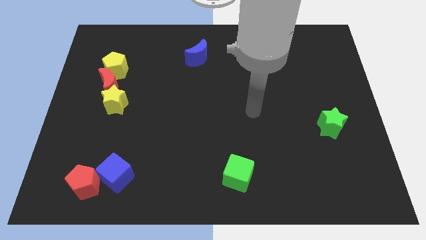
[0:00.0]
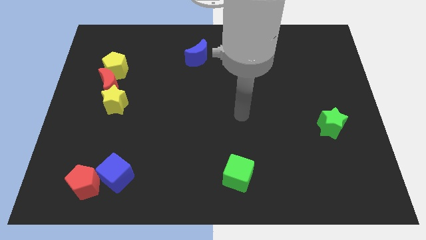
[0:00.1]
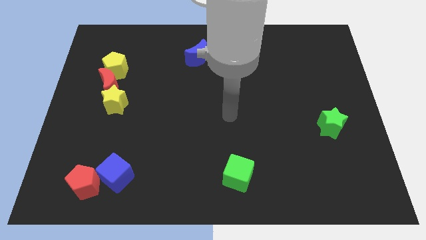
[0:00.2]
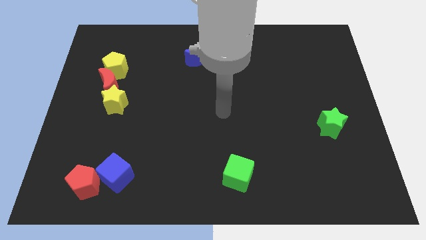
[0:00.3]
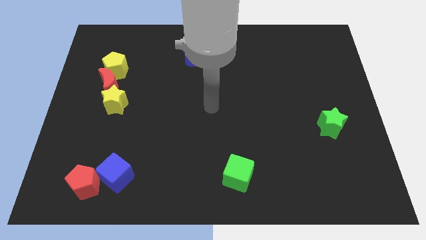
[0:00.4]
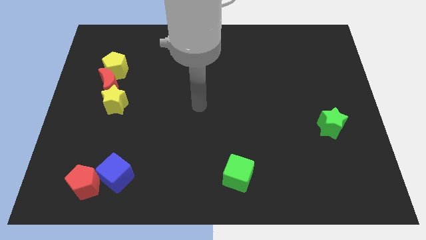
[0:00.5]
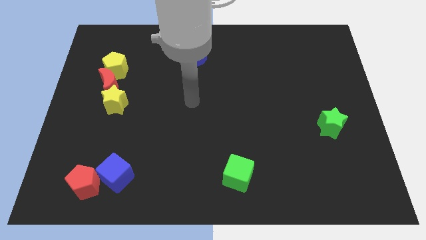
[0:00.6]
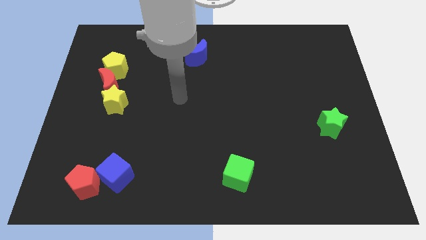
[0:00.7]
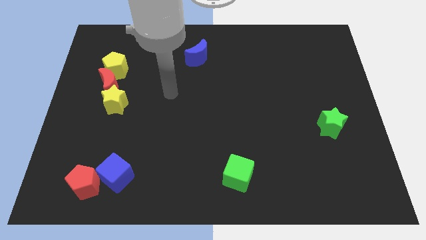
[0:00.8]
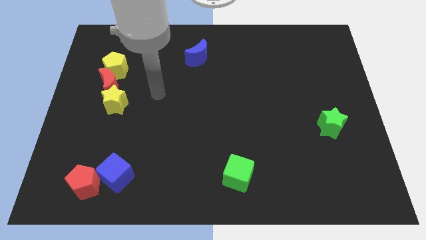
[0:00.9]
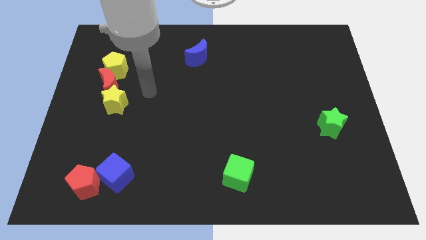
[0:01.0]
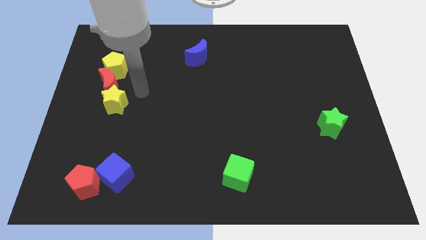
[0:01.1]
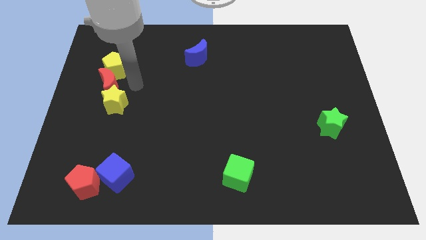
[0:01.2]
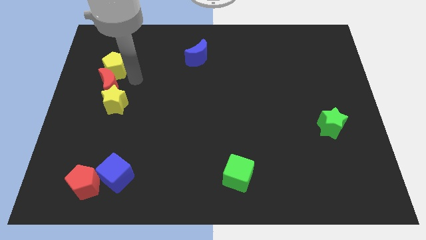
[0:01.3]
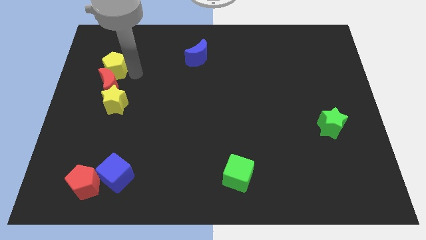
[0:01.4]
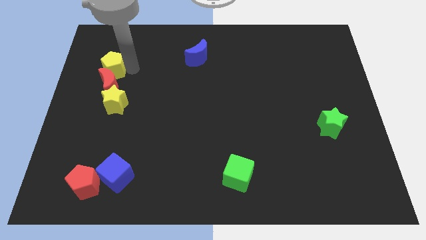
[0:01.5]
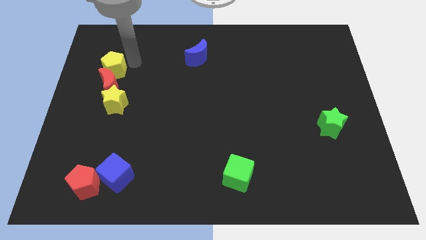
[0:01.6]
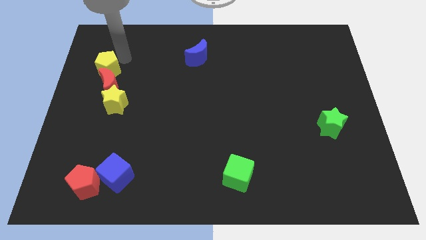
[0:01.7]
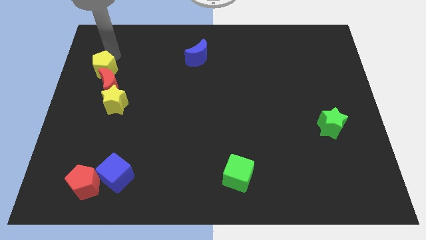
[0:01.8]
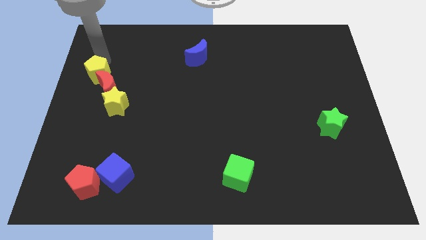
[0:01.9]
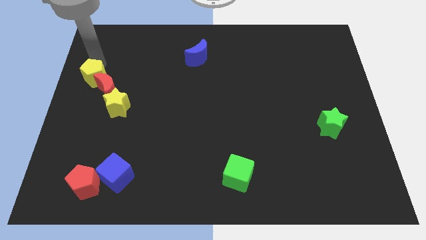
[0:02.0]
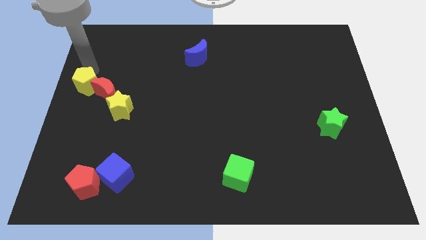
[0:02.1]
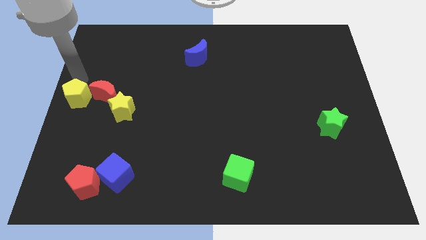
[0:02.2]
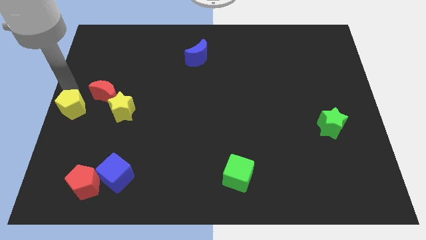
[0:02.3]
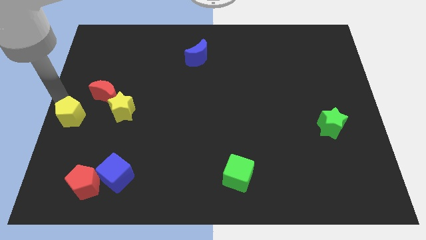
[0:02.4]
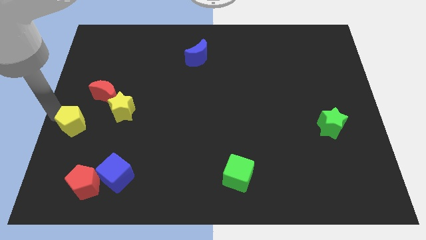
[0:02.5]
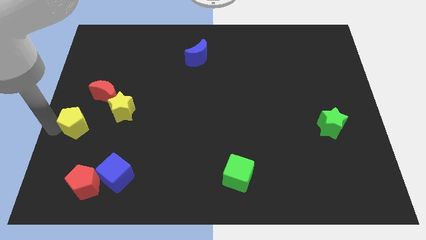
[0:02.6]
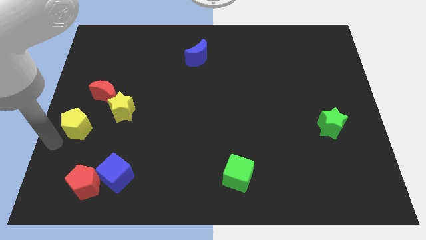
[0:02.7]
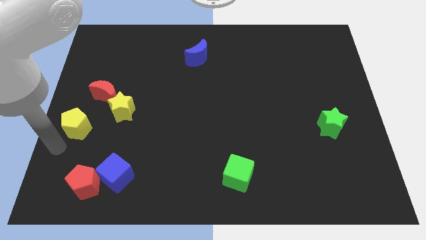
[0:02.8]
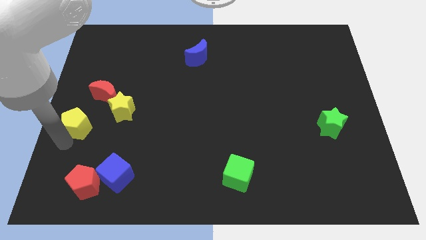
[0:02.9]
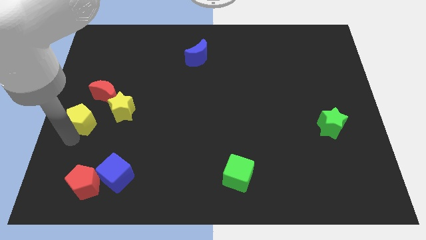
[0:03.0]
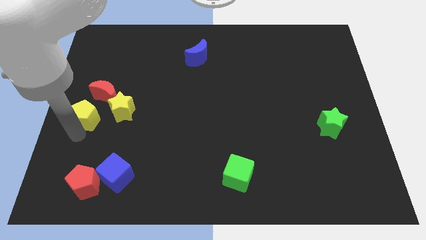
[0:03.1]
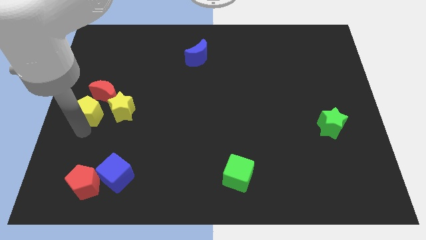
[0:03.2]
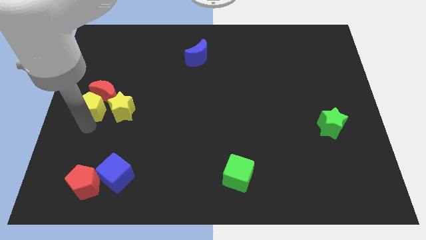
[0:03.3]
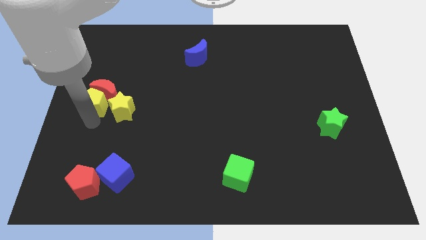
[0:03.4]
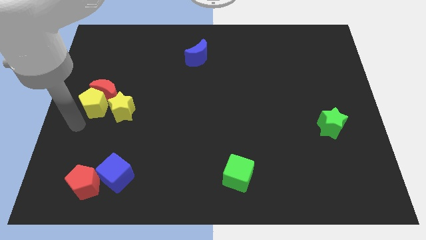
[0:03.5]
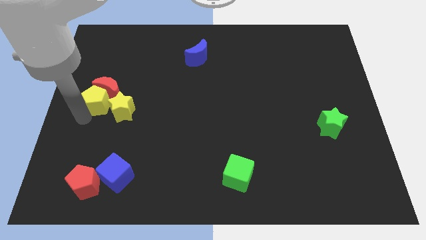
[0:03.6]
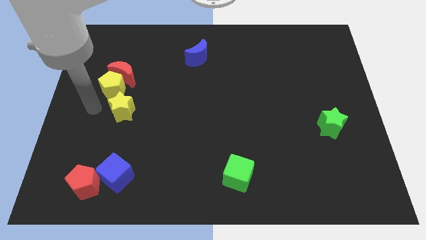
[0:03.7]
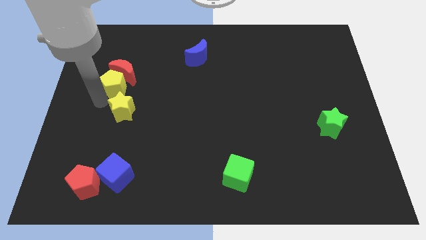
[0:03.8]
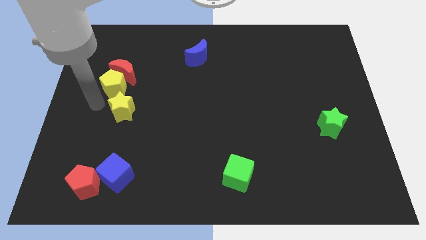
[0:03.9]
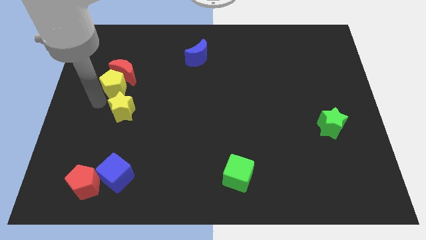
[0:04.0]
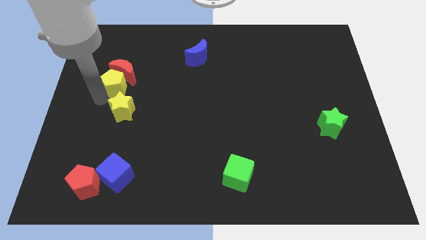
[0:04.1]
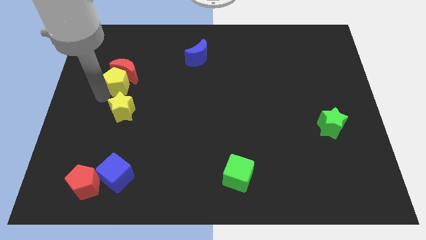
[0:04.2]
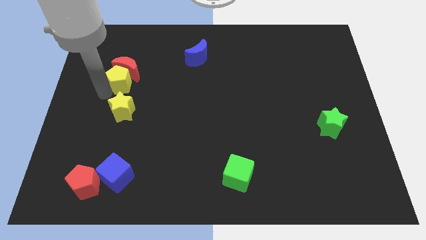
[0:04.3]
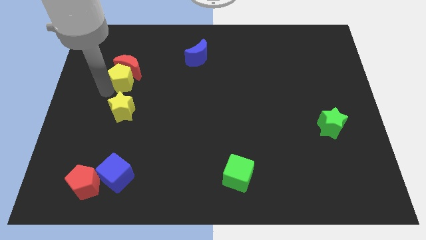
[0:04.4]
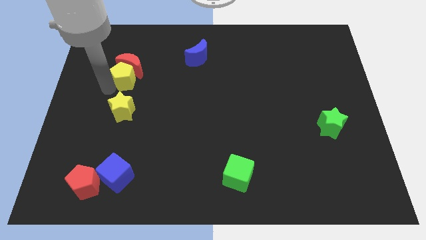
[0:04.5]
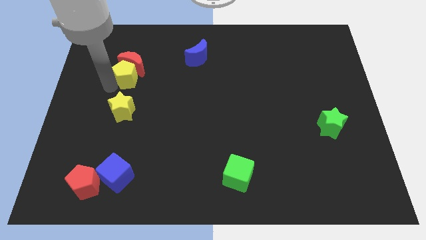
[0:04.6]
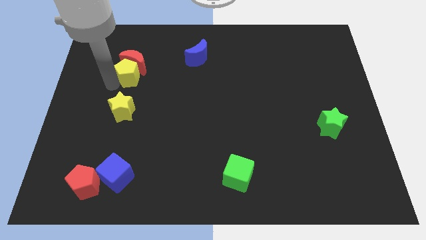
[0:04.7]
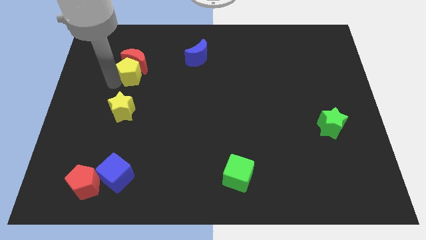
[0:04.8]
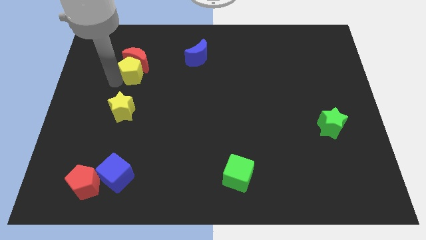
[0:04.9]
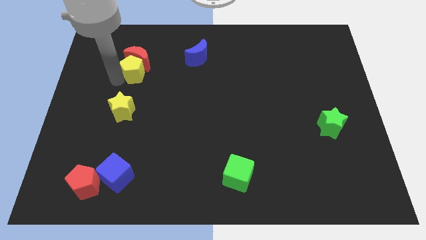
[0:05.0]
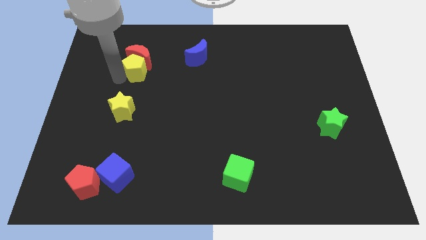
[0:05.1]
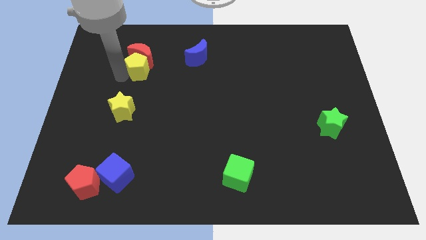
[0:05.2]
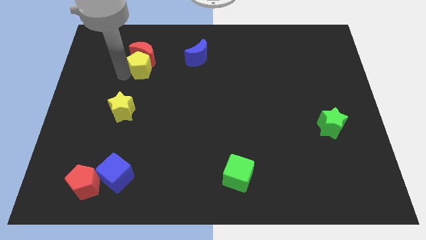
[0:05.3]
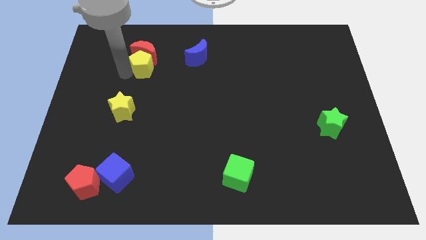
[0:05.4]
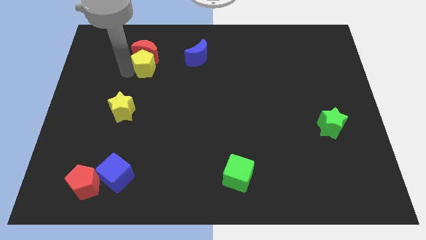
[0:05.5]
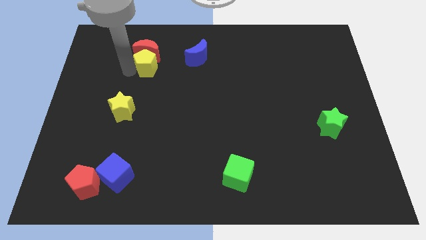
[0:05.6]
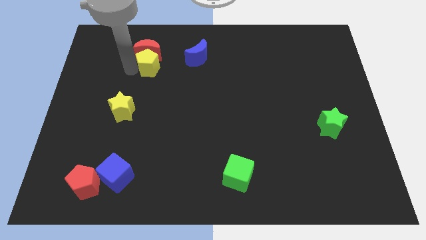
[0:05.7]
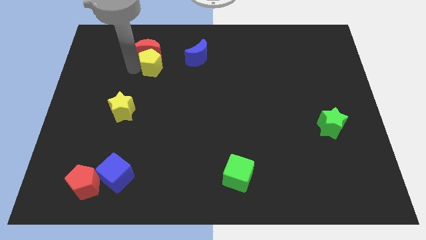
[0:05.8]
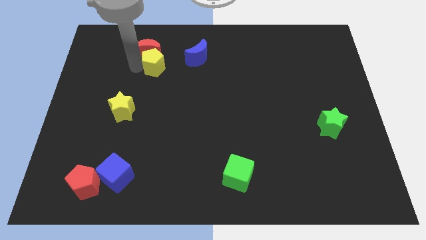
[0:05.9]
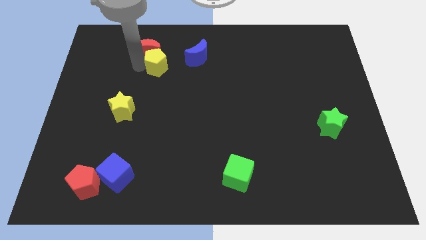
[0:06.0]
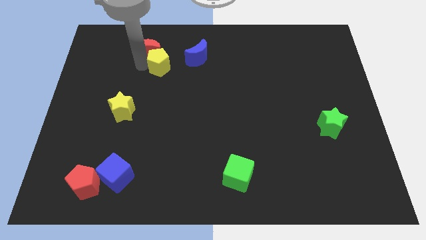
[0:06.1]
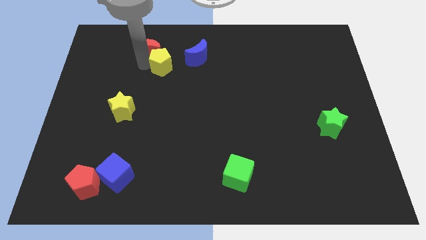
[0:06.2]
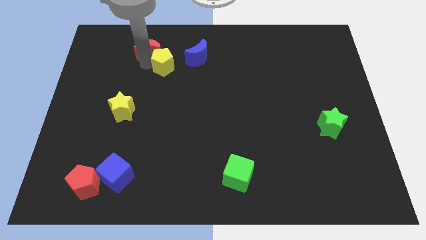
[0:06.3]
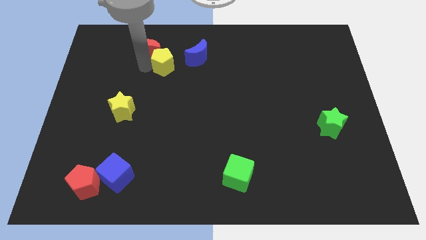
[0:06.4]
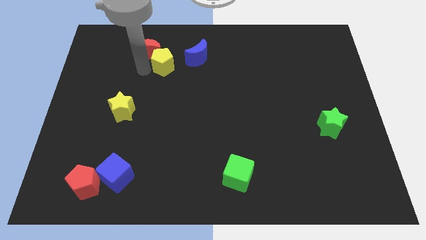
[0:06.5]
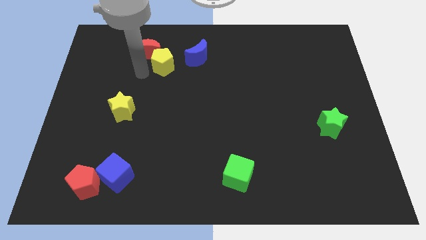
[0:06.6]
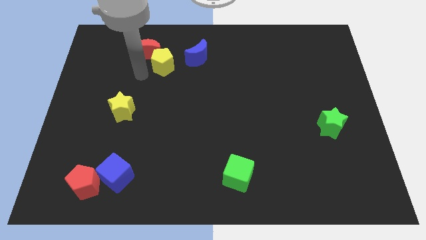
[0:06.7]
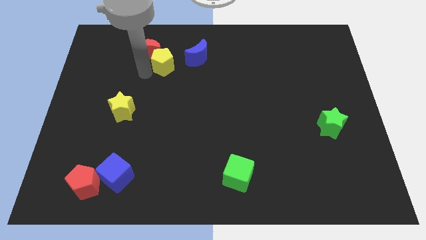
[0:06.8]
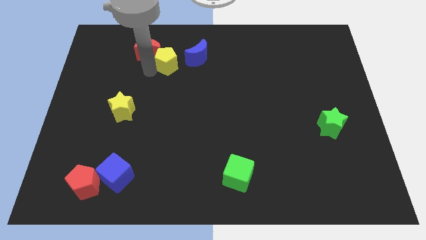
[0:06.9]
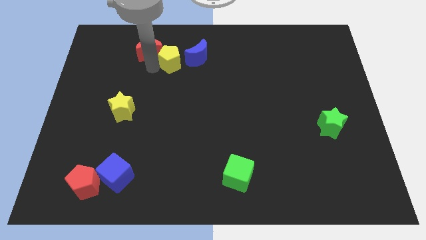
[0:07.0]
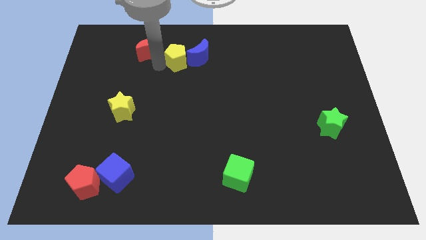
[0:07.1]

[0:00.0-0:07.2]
put the yellow pentagon to the blue moon
